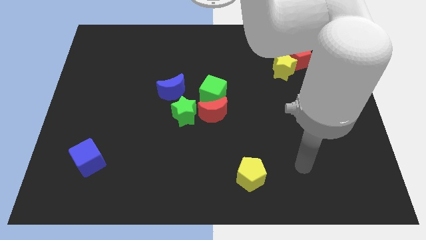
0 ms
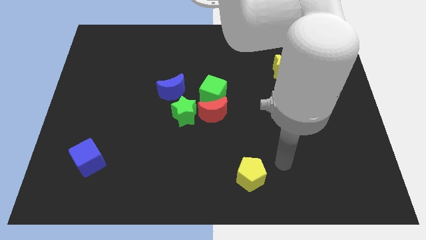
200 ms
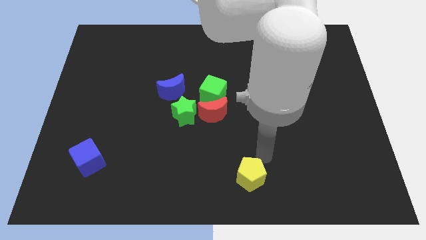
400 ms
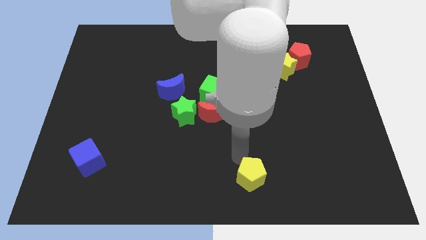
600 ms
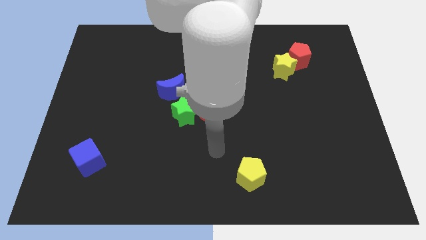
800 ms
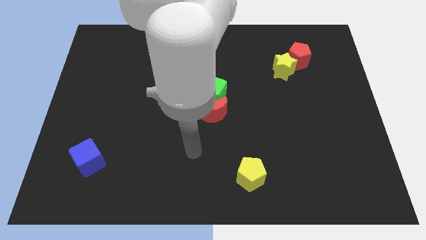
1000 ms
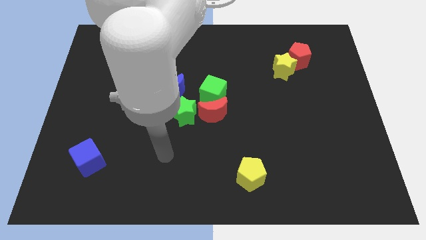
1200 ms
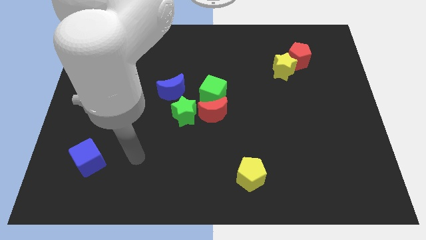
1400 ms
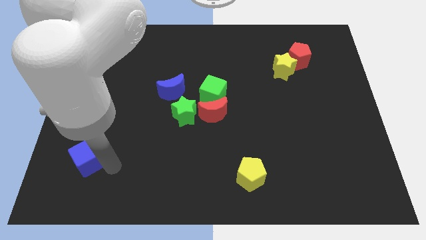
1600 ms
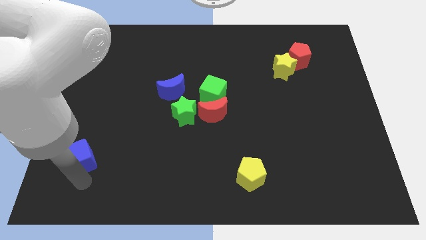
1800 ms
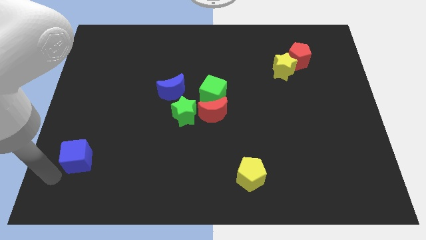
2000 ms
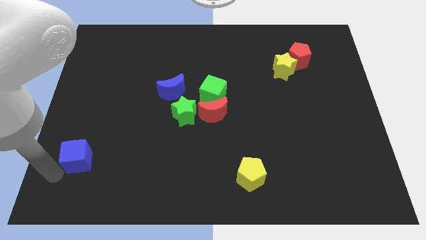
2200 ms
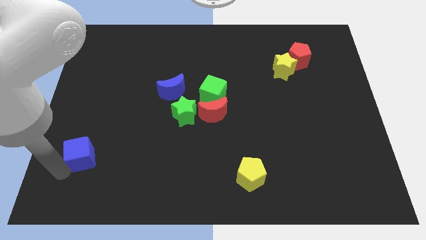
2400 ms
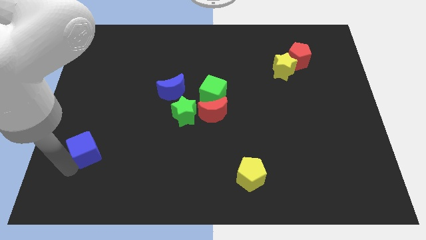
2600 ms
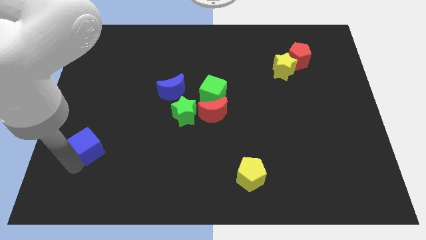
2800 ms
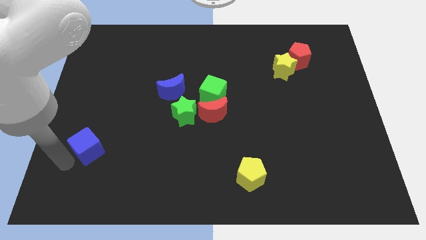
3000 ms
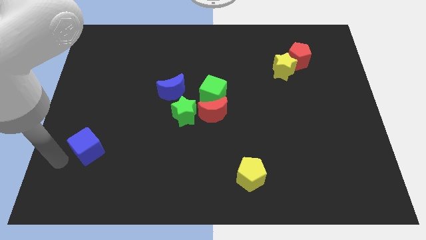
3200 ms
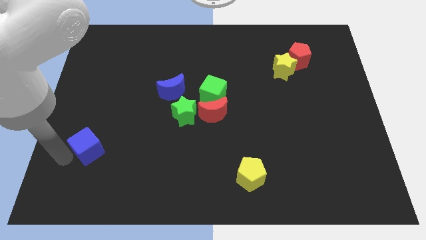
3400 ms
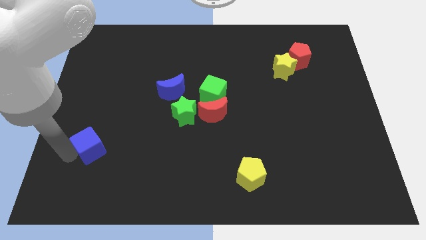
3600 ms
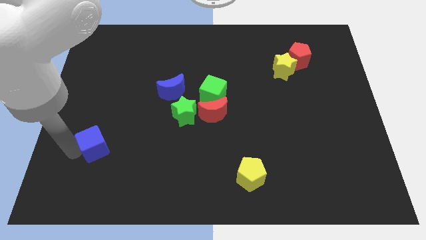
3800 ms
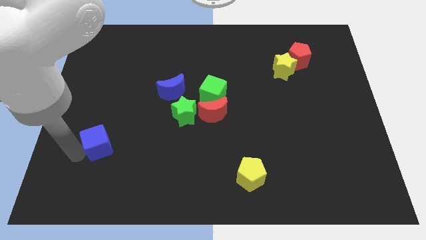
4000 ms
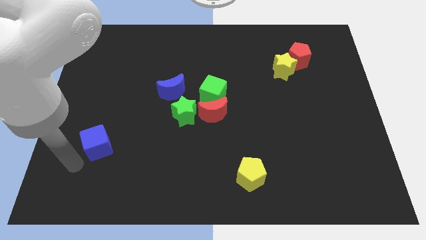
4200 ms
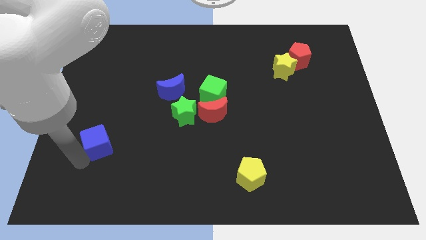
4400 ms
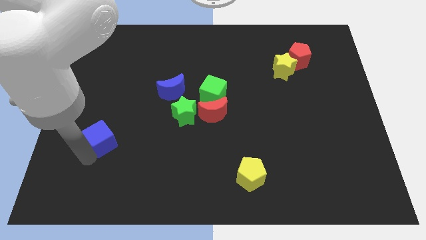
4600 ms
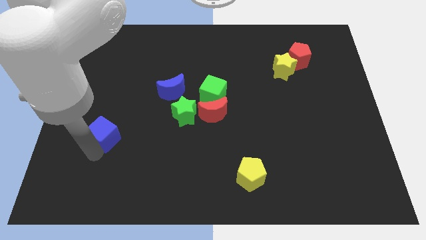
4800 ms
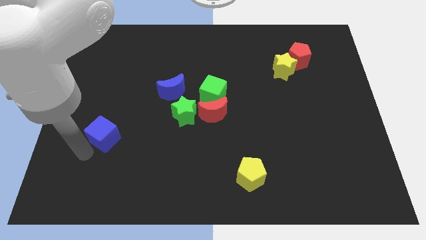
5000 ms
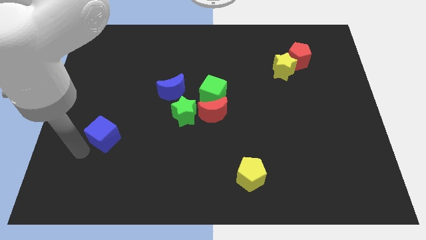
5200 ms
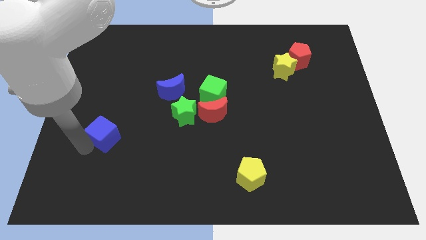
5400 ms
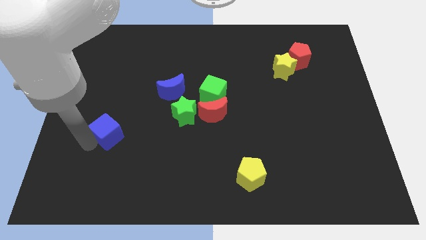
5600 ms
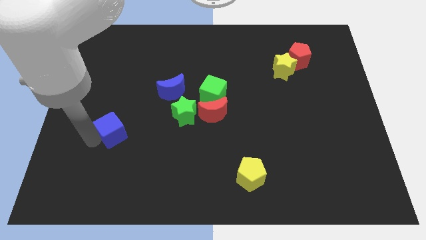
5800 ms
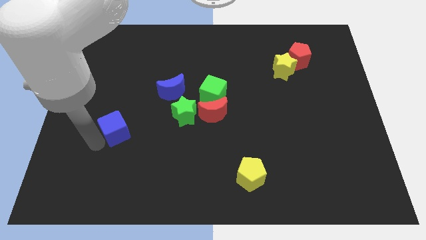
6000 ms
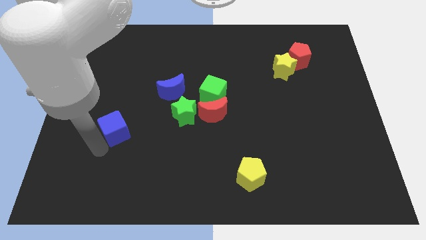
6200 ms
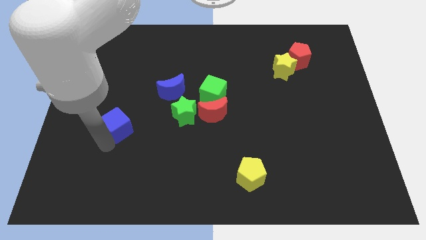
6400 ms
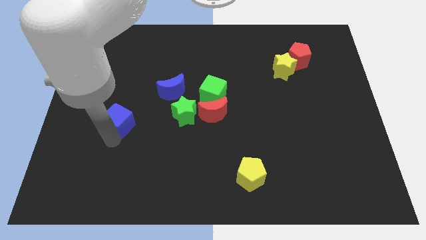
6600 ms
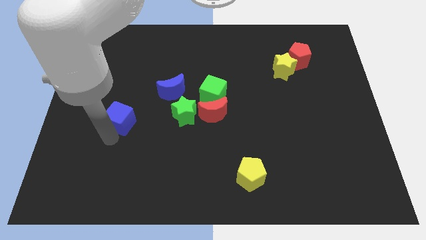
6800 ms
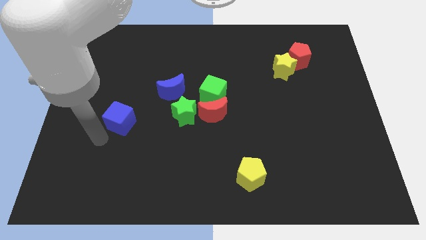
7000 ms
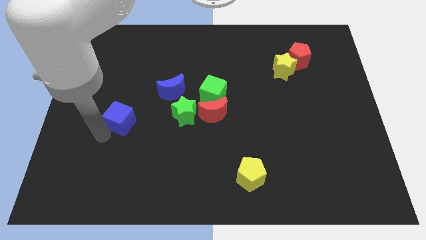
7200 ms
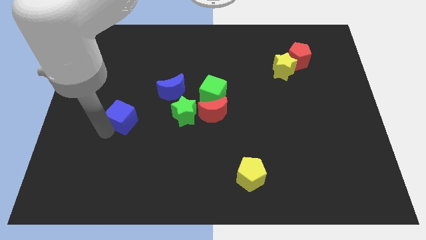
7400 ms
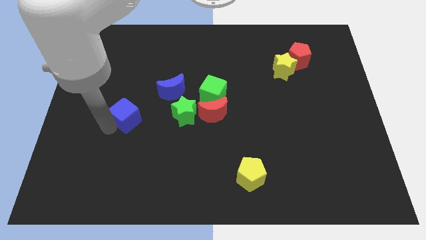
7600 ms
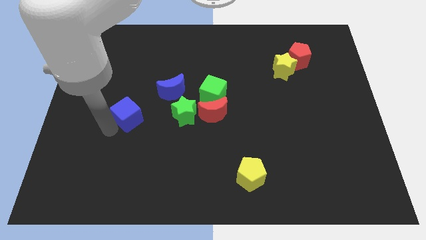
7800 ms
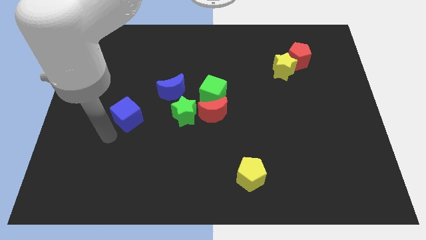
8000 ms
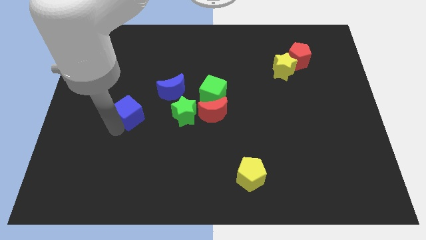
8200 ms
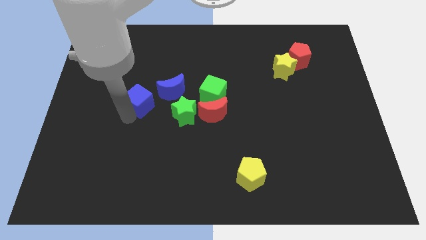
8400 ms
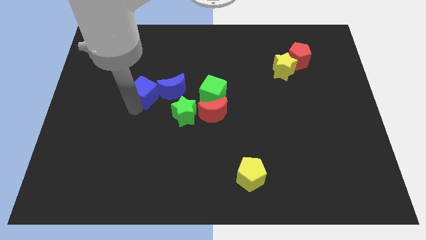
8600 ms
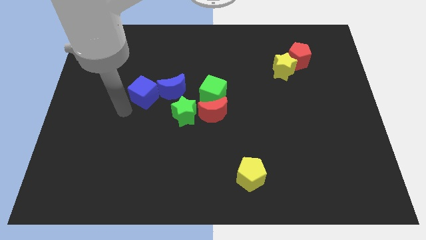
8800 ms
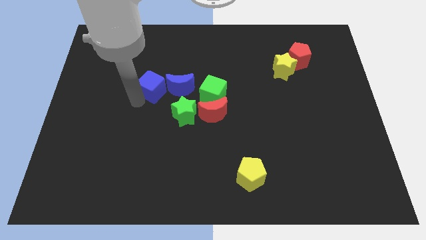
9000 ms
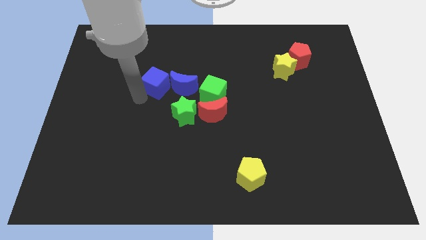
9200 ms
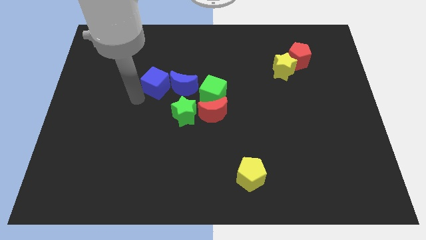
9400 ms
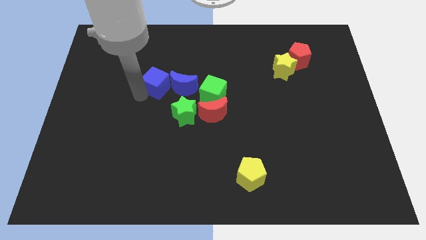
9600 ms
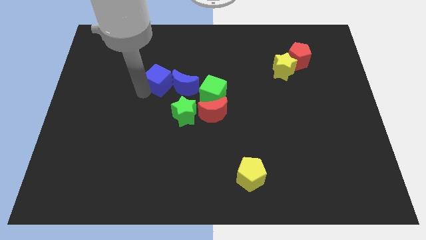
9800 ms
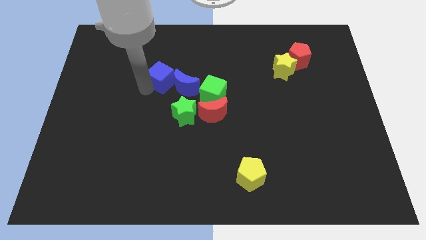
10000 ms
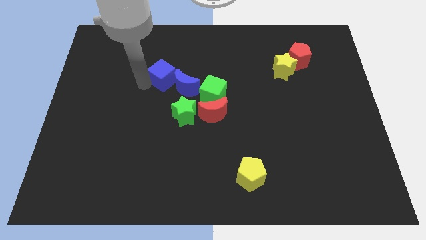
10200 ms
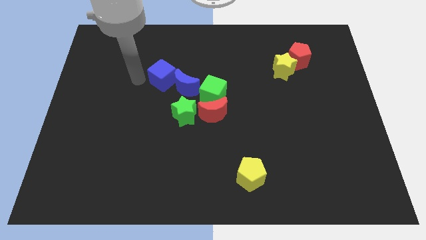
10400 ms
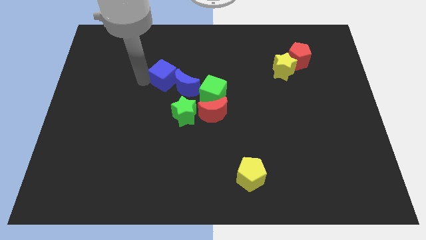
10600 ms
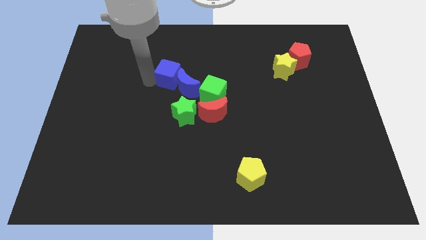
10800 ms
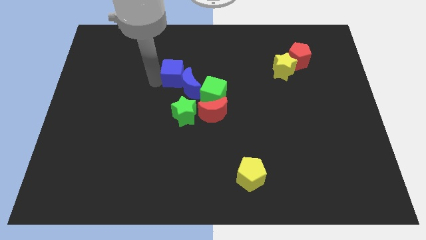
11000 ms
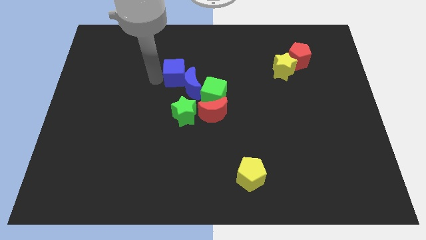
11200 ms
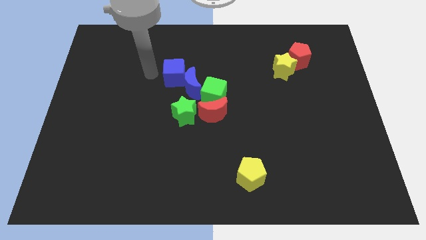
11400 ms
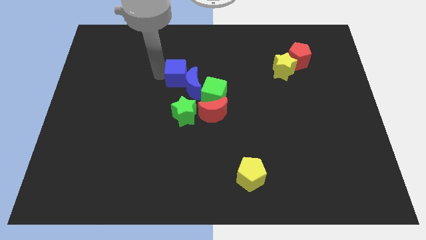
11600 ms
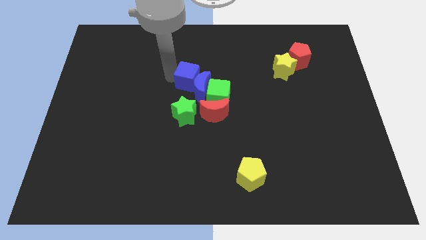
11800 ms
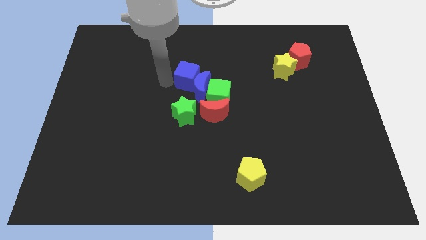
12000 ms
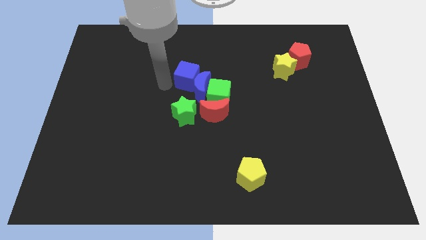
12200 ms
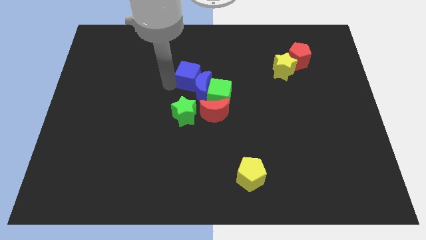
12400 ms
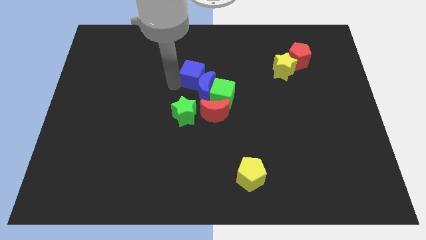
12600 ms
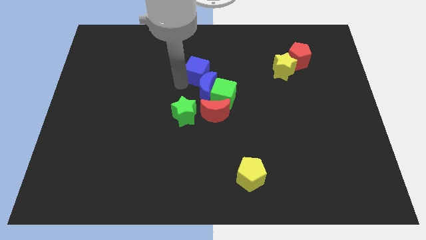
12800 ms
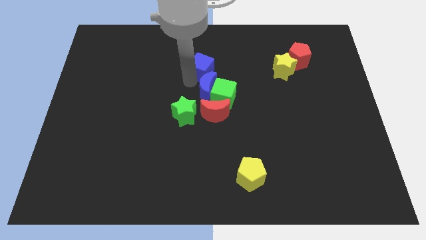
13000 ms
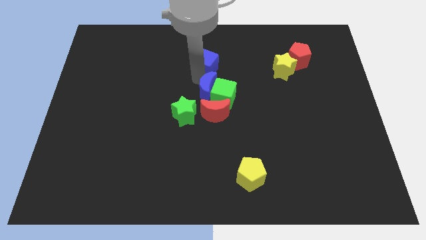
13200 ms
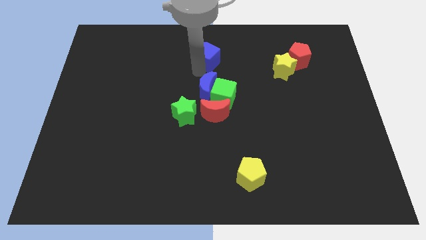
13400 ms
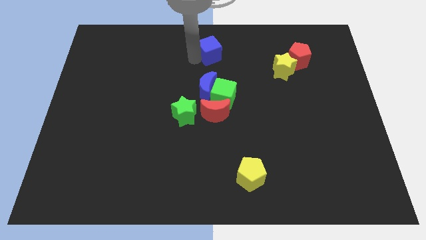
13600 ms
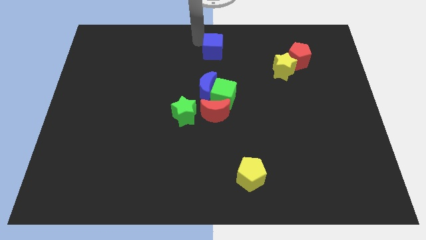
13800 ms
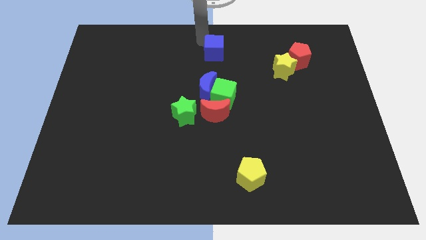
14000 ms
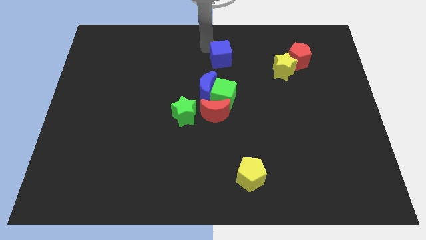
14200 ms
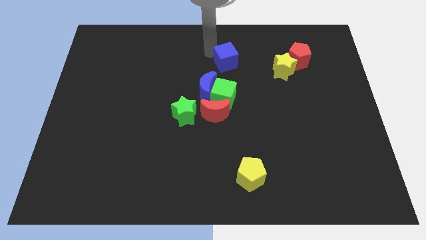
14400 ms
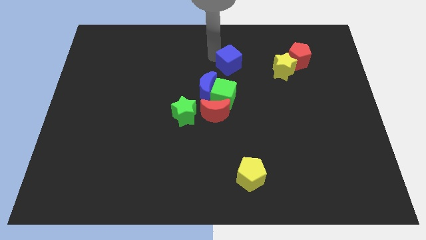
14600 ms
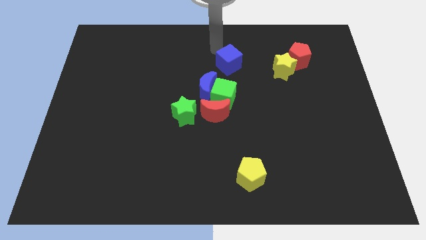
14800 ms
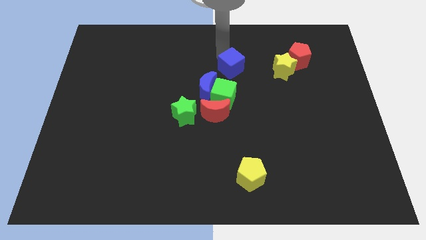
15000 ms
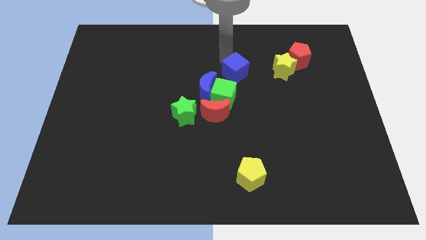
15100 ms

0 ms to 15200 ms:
push the blue cube to the top right of the green cube

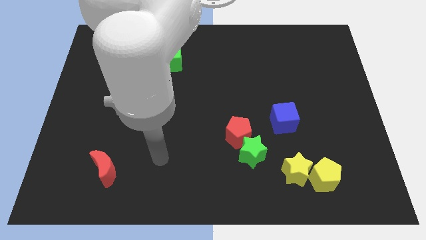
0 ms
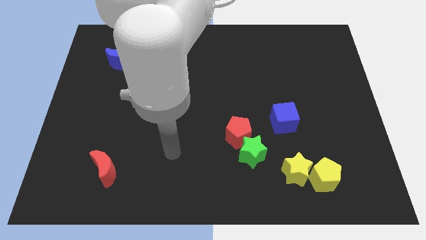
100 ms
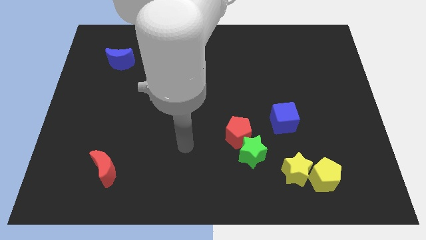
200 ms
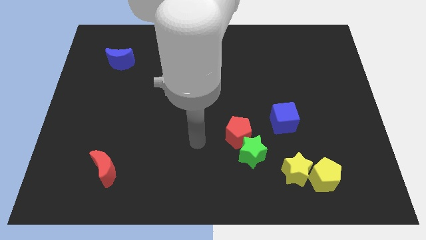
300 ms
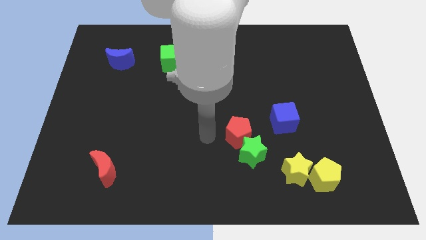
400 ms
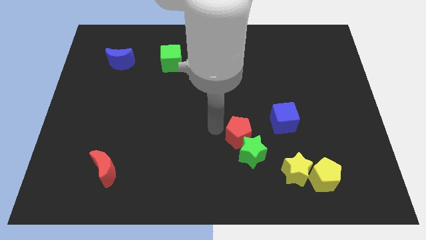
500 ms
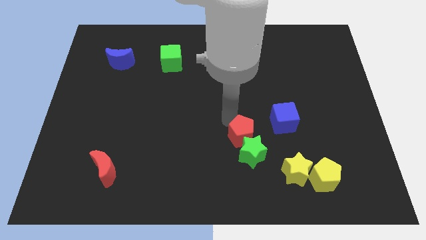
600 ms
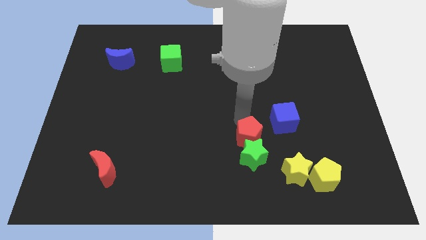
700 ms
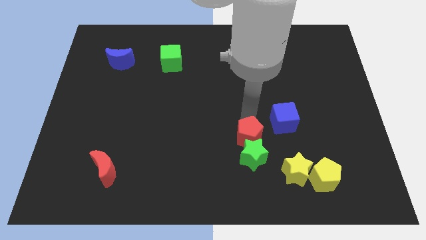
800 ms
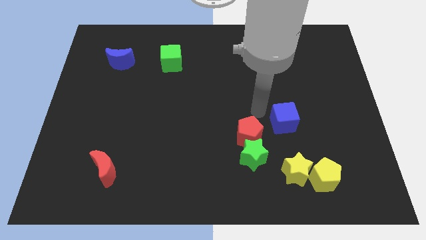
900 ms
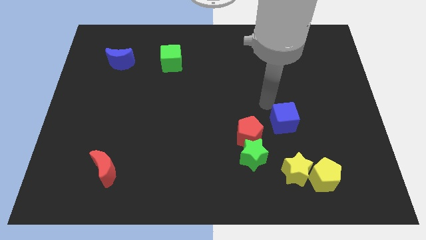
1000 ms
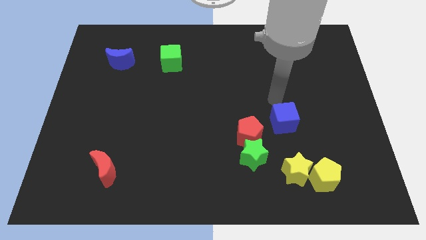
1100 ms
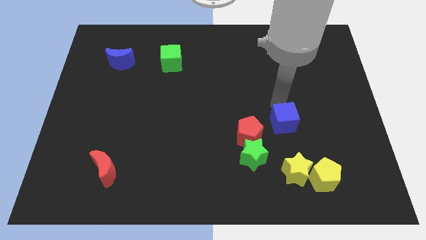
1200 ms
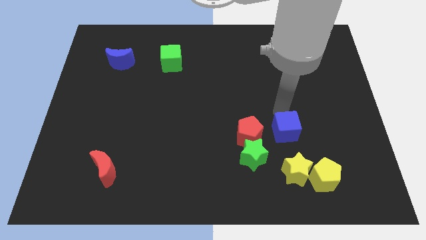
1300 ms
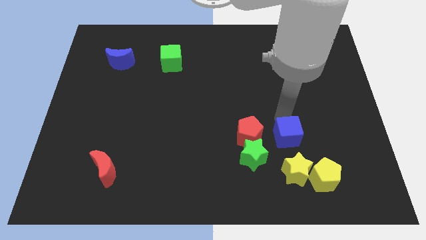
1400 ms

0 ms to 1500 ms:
push the blue cube diagonally up and to the left of the yellow pentagon
